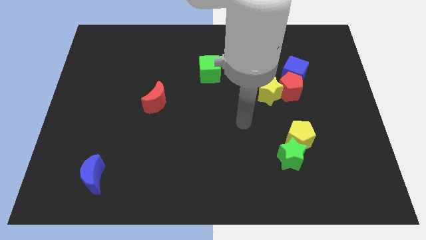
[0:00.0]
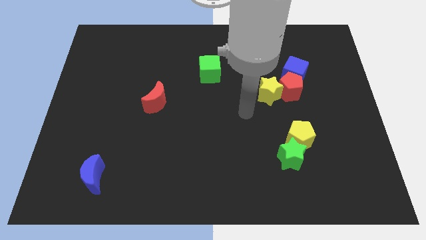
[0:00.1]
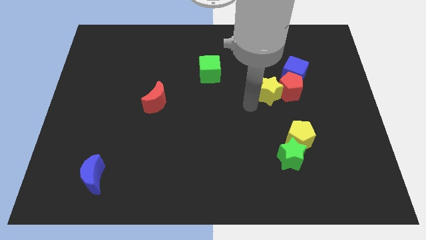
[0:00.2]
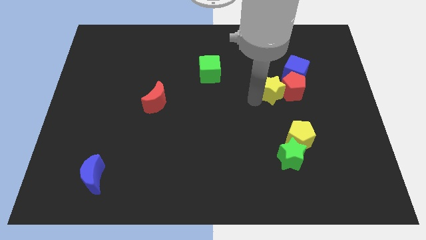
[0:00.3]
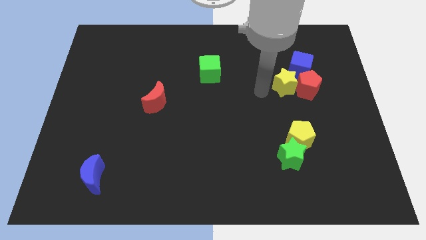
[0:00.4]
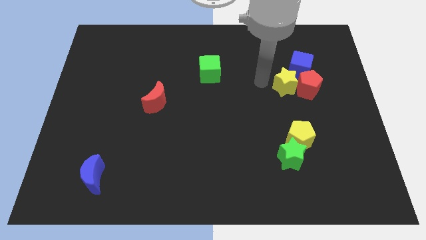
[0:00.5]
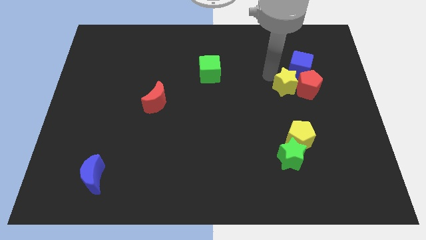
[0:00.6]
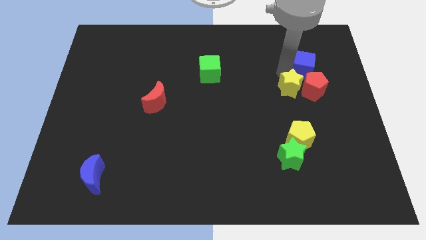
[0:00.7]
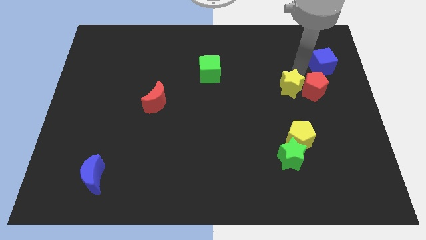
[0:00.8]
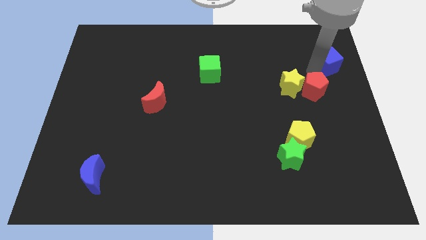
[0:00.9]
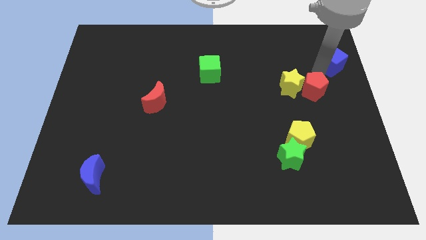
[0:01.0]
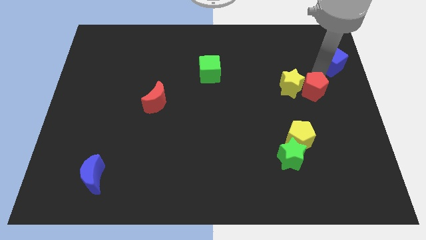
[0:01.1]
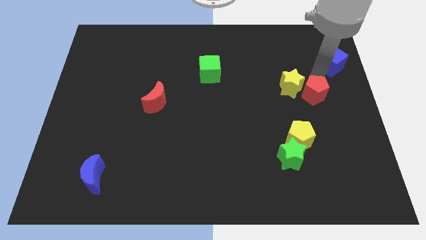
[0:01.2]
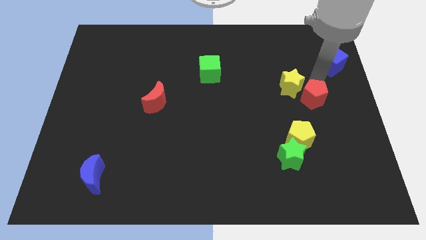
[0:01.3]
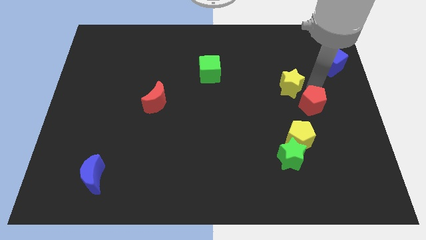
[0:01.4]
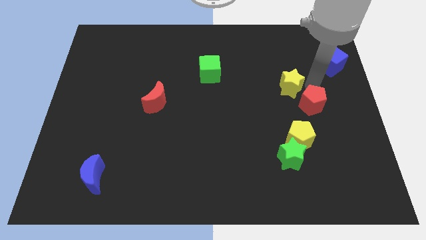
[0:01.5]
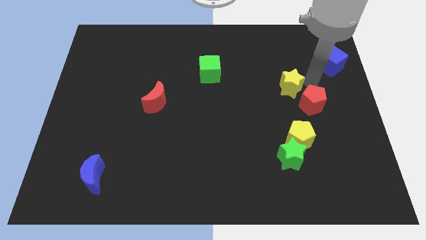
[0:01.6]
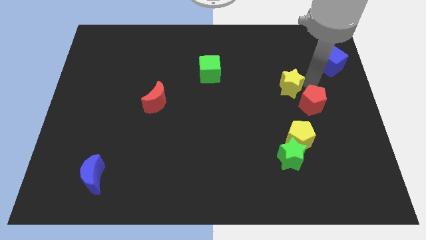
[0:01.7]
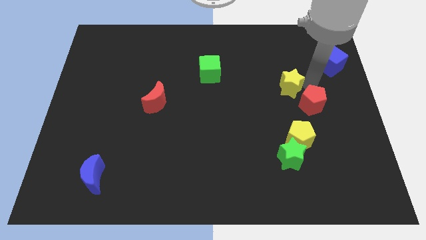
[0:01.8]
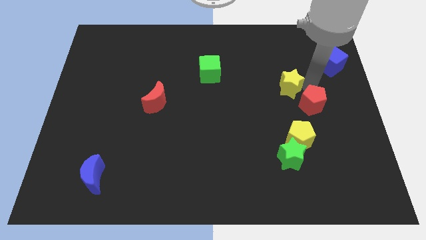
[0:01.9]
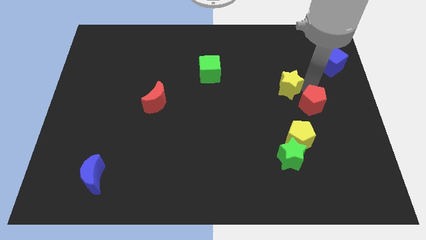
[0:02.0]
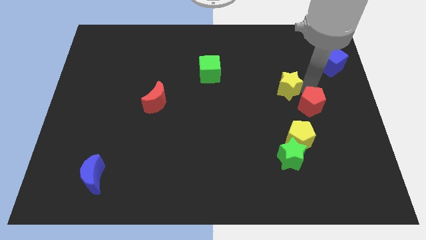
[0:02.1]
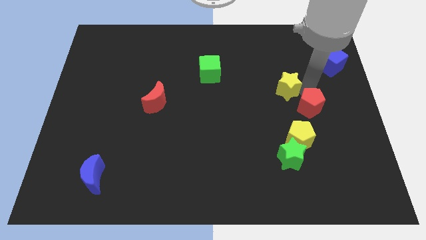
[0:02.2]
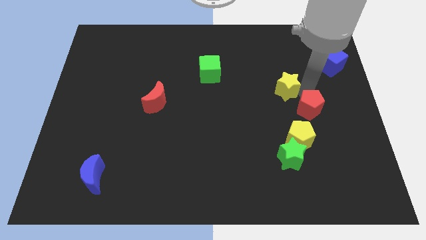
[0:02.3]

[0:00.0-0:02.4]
pull the red pentagon apart from the yellow star and blue cube

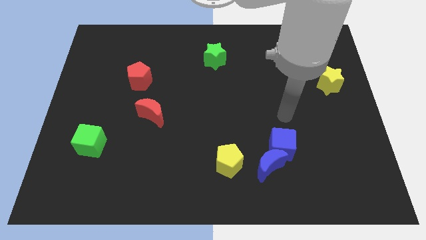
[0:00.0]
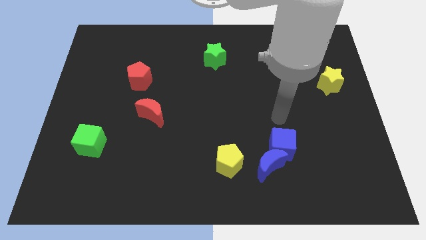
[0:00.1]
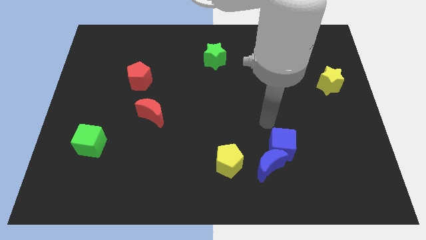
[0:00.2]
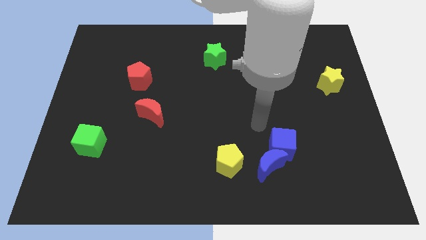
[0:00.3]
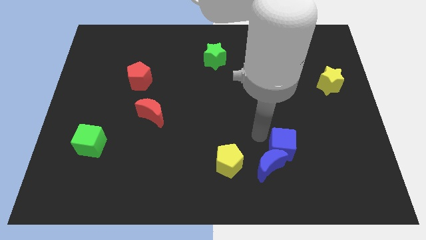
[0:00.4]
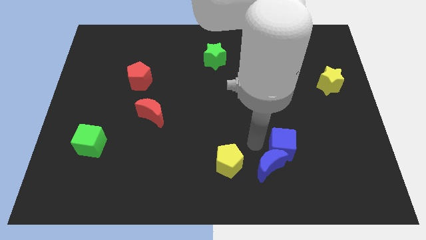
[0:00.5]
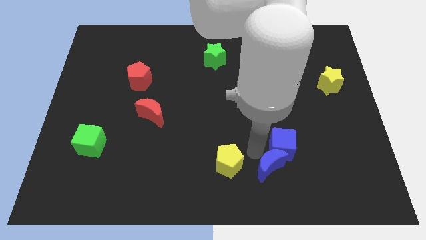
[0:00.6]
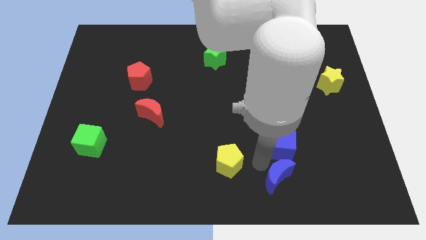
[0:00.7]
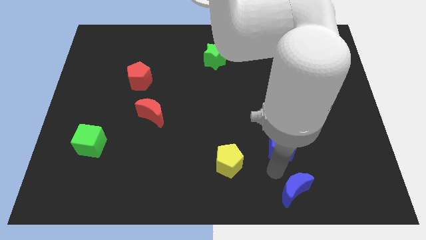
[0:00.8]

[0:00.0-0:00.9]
pull the blue cube apart from the blue moon

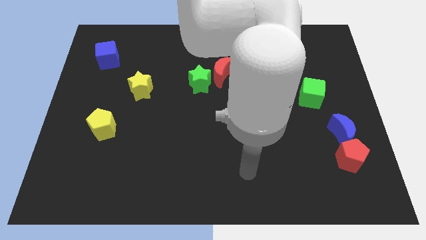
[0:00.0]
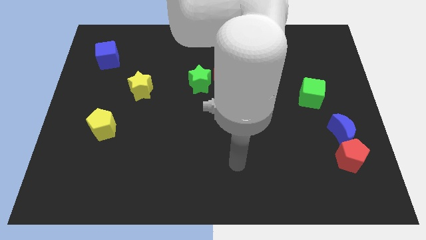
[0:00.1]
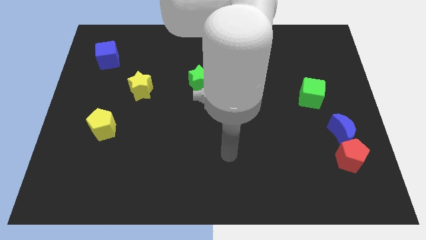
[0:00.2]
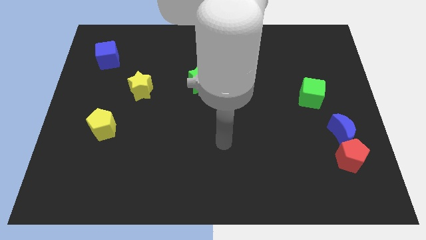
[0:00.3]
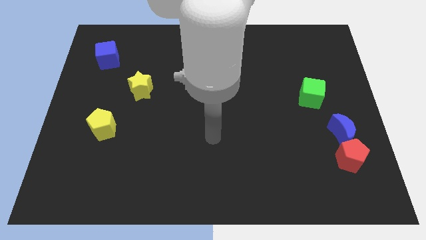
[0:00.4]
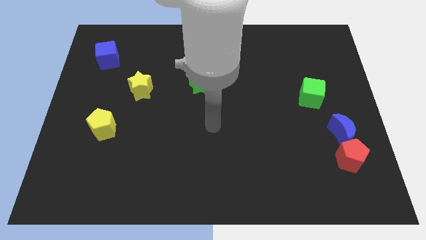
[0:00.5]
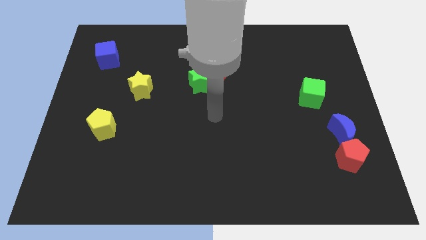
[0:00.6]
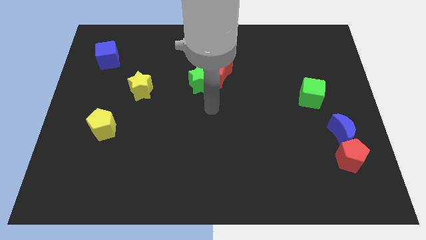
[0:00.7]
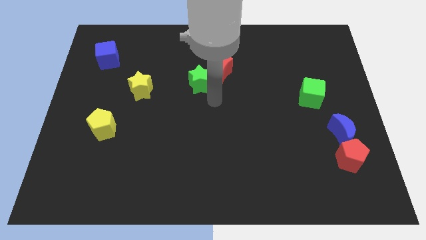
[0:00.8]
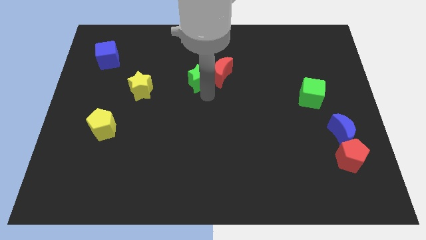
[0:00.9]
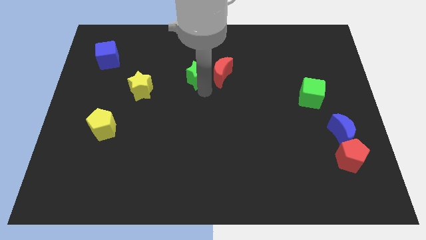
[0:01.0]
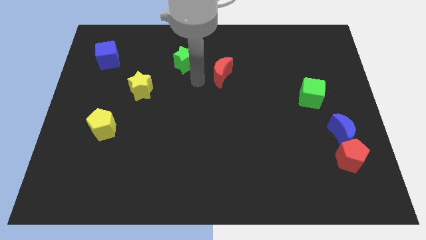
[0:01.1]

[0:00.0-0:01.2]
move the red moon away from the green star

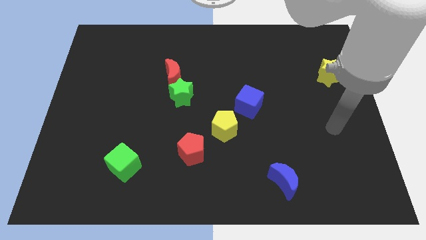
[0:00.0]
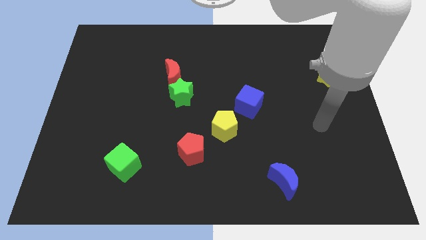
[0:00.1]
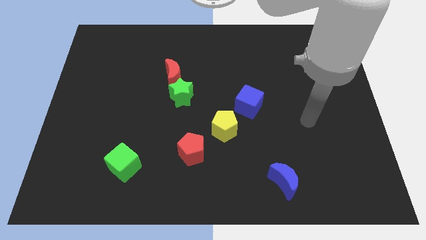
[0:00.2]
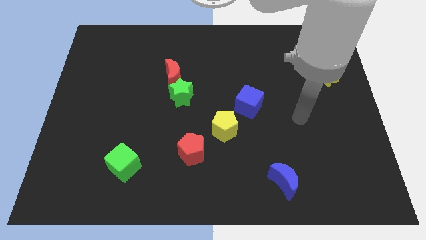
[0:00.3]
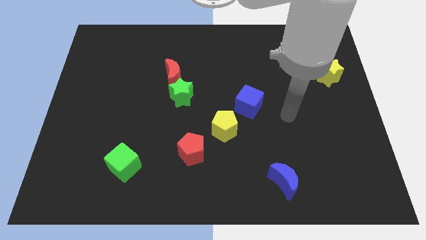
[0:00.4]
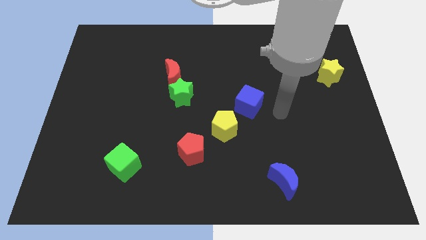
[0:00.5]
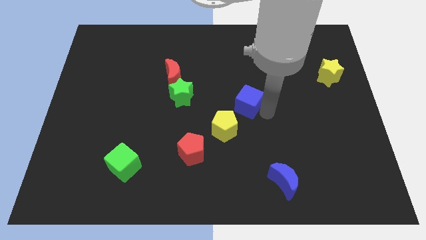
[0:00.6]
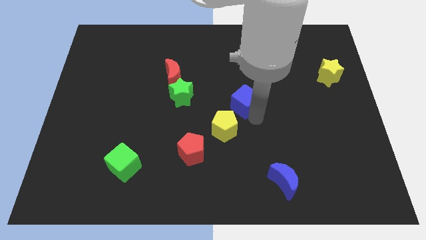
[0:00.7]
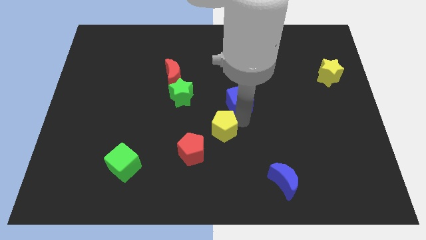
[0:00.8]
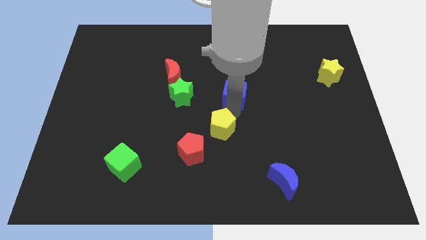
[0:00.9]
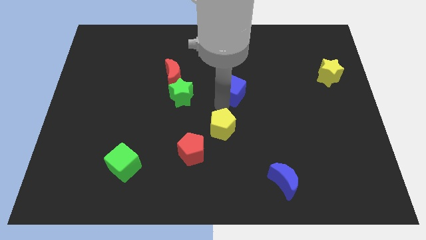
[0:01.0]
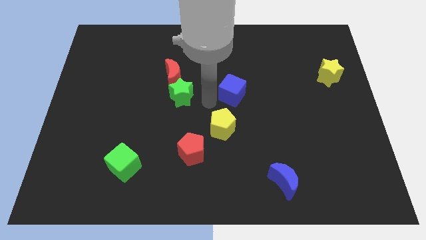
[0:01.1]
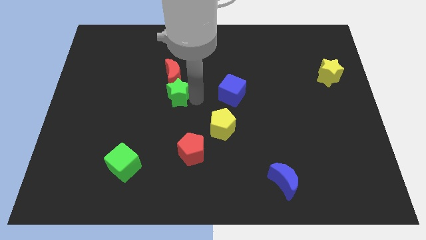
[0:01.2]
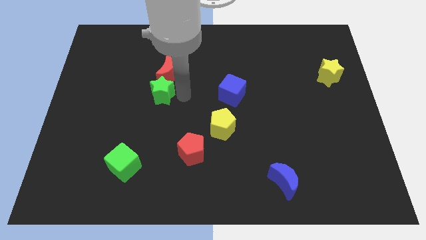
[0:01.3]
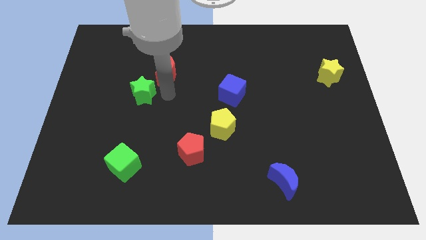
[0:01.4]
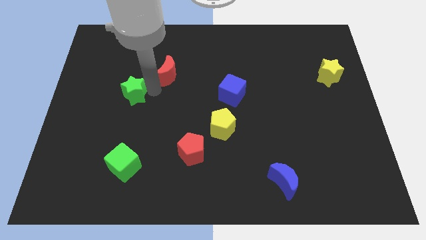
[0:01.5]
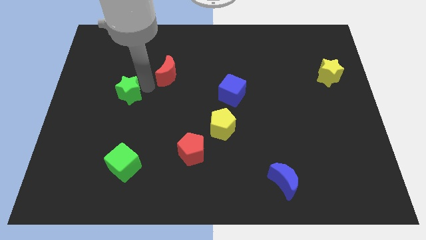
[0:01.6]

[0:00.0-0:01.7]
pull the red moon apart from the green star

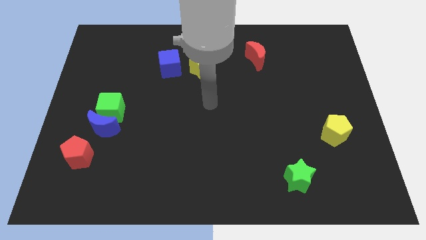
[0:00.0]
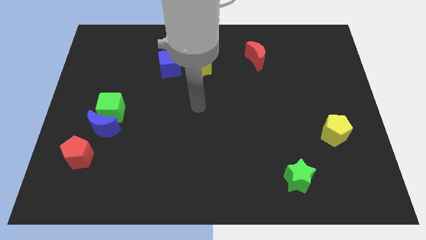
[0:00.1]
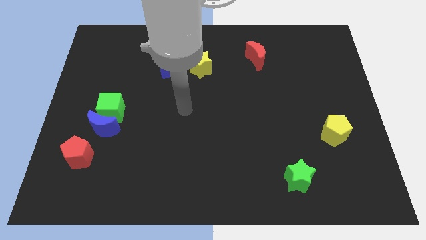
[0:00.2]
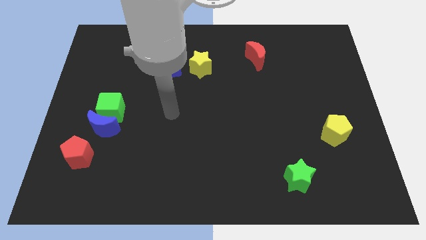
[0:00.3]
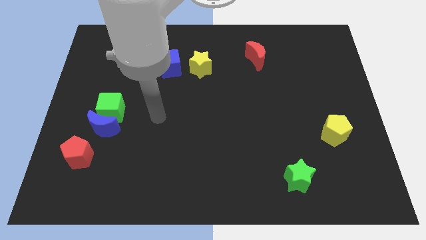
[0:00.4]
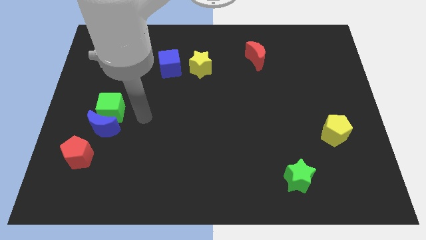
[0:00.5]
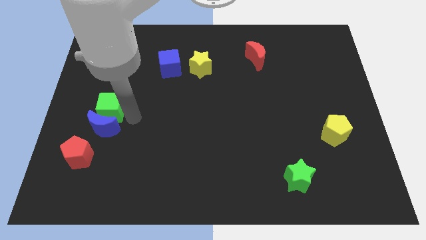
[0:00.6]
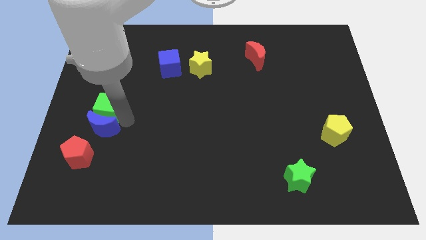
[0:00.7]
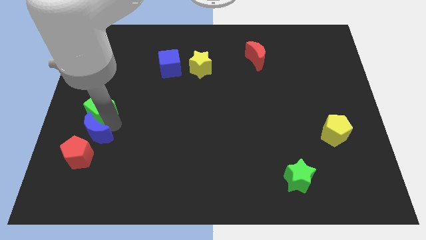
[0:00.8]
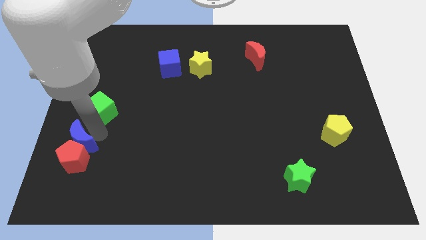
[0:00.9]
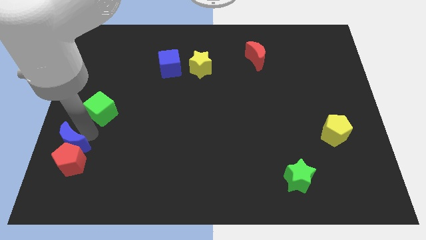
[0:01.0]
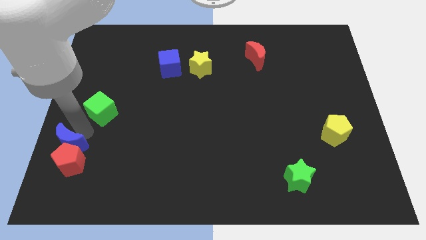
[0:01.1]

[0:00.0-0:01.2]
separate the green cube from the blue moon

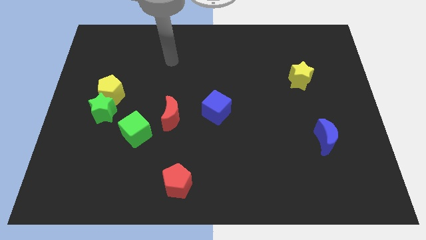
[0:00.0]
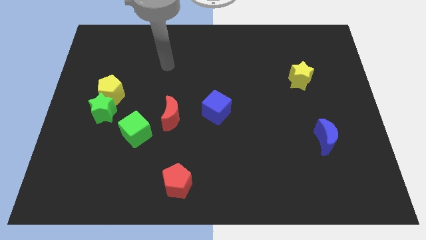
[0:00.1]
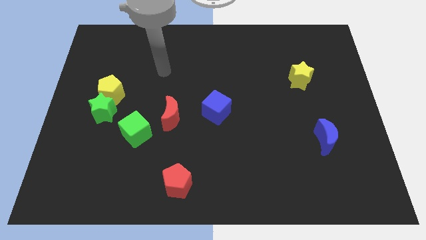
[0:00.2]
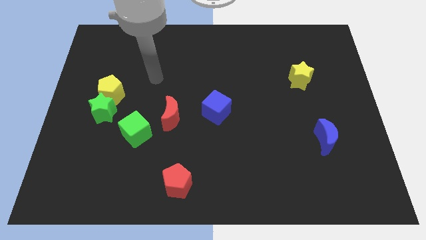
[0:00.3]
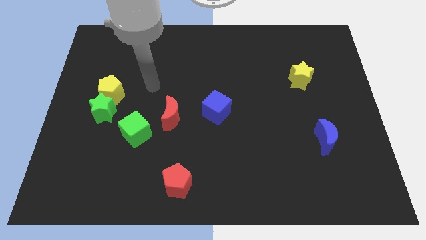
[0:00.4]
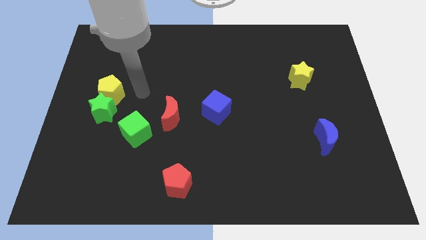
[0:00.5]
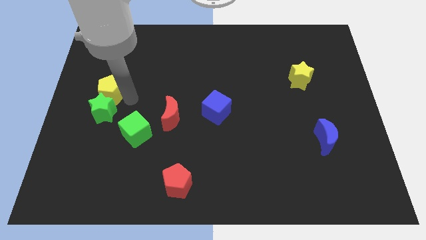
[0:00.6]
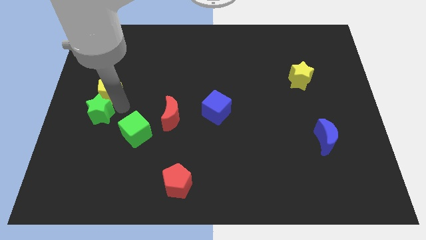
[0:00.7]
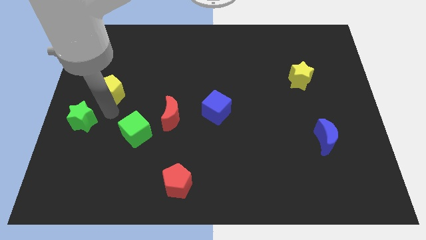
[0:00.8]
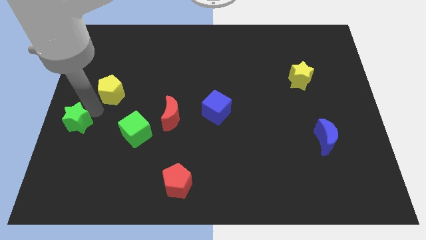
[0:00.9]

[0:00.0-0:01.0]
move the yellow pentagon away from the green star

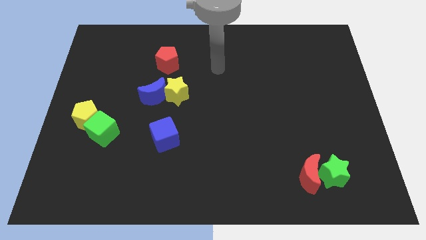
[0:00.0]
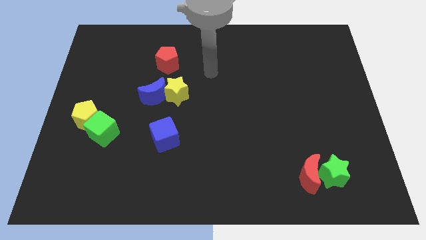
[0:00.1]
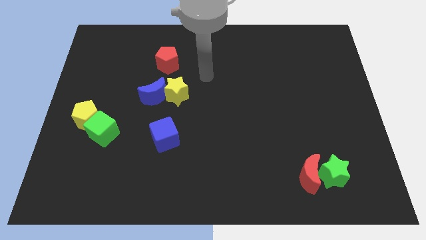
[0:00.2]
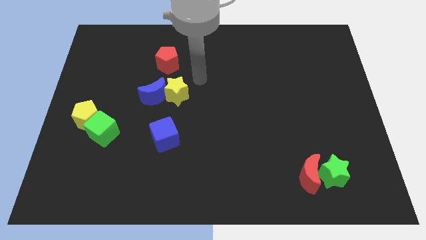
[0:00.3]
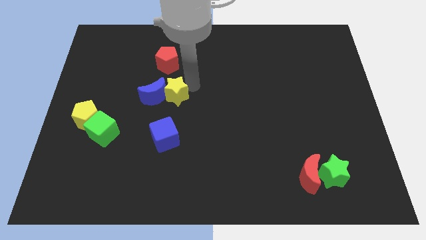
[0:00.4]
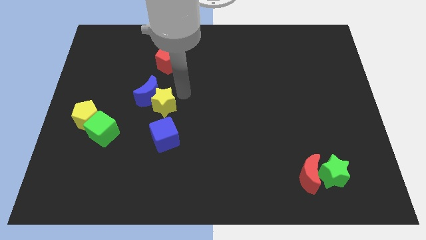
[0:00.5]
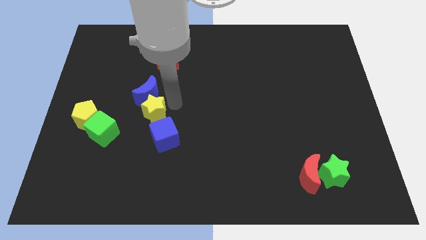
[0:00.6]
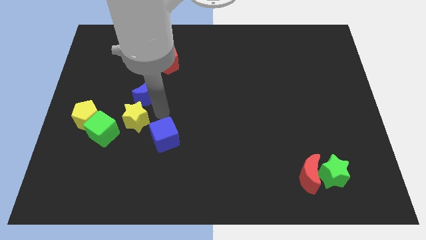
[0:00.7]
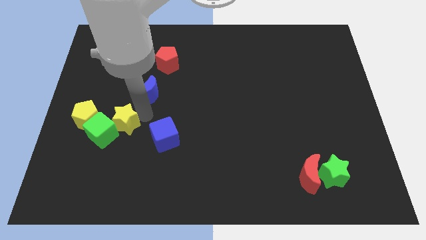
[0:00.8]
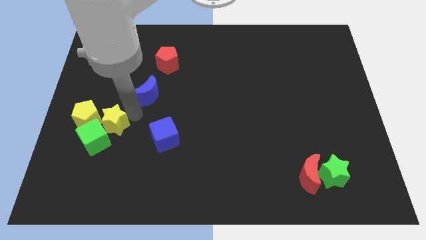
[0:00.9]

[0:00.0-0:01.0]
separate the blue moon from the yellow star
